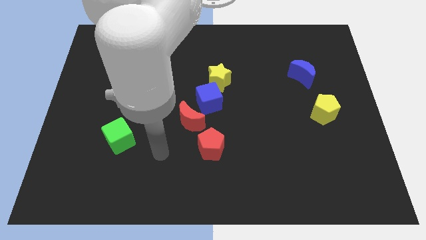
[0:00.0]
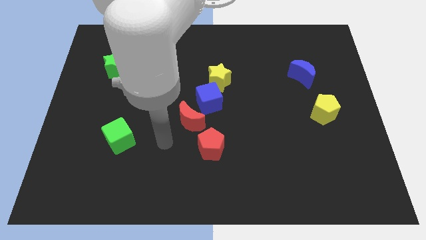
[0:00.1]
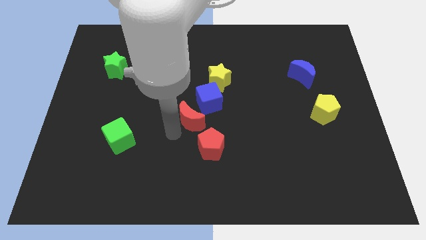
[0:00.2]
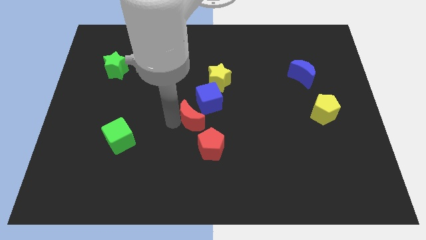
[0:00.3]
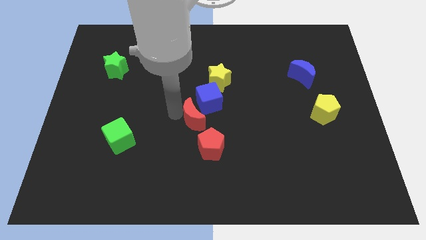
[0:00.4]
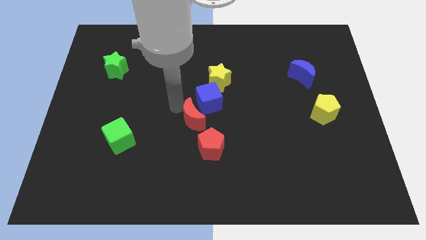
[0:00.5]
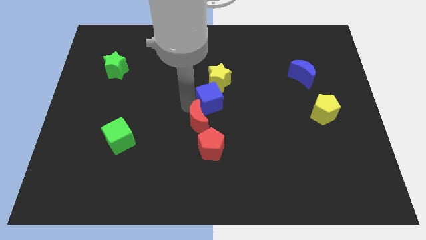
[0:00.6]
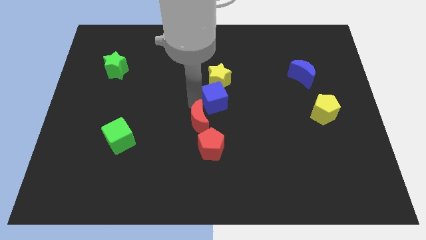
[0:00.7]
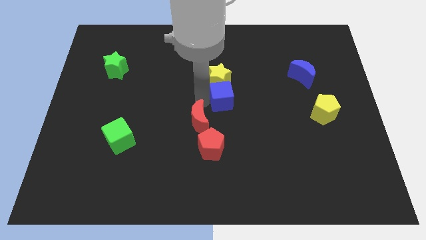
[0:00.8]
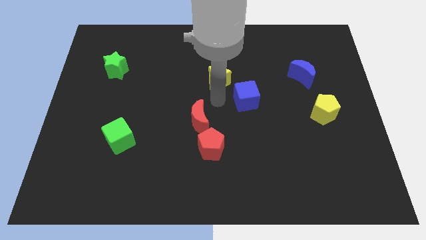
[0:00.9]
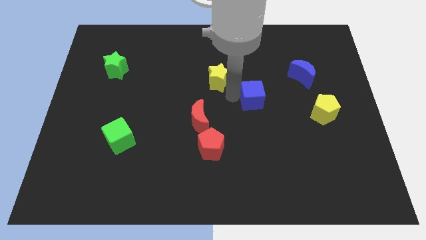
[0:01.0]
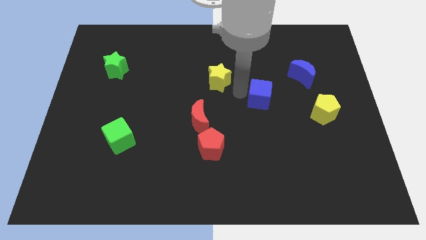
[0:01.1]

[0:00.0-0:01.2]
pull the yellow star apart from the blue cube

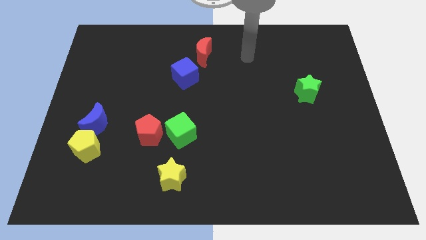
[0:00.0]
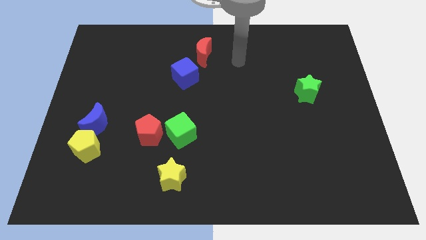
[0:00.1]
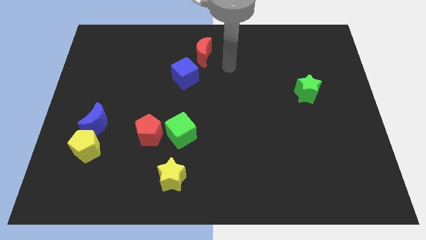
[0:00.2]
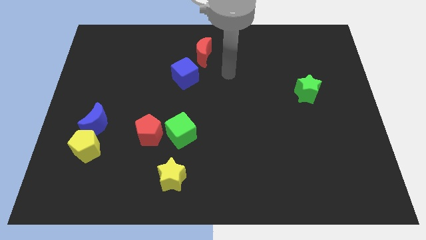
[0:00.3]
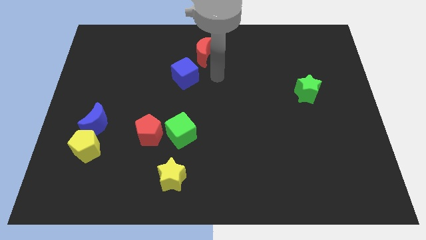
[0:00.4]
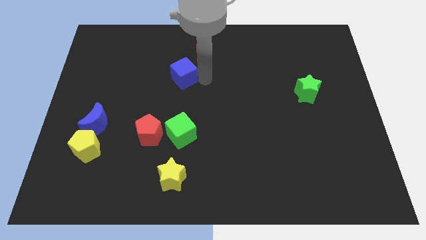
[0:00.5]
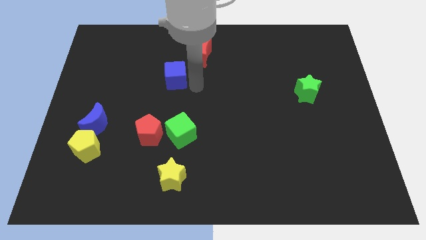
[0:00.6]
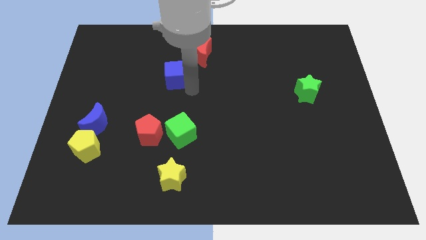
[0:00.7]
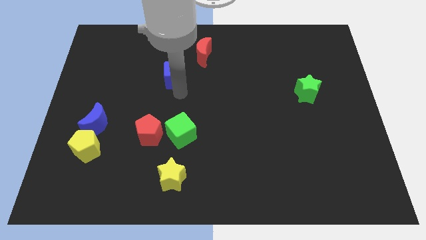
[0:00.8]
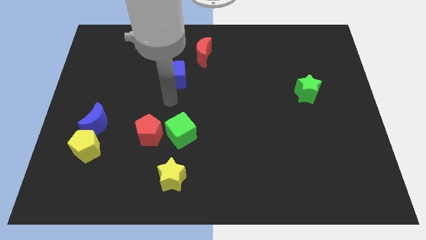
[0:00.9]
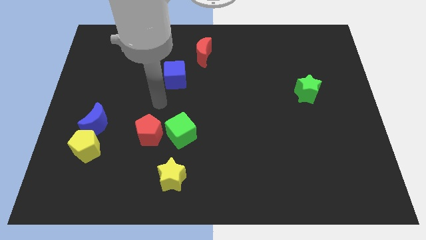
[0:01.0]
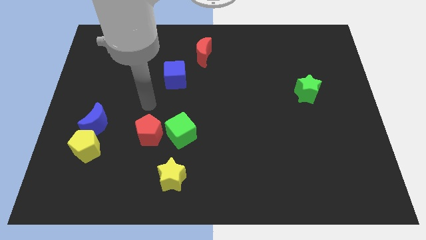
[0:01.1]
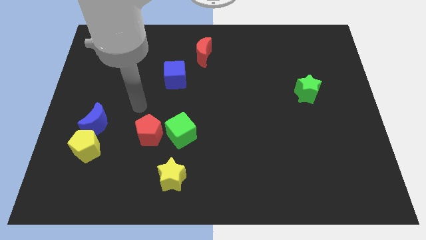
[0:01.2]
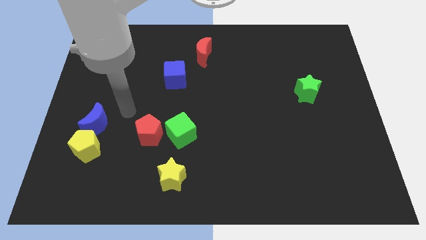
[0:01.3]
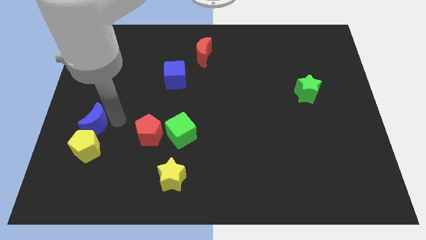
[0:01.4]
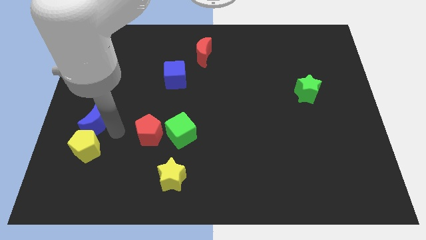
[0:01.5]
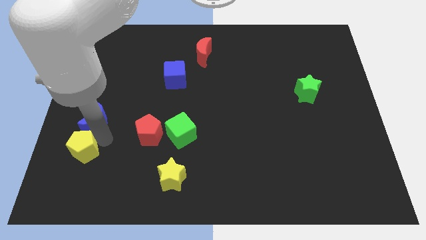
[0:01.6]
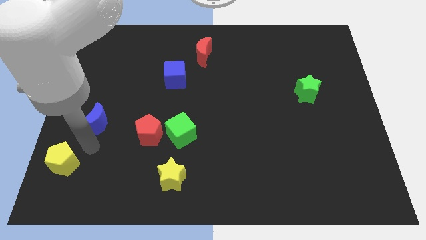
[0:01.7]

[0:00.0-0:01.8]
move the blue moon away from the yellow pentagon

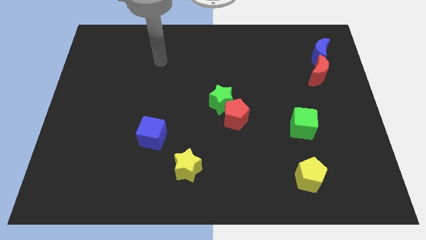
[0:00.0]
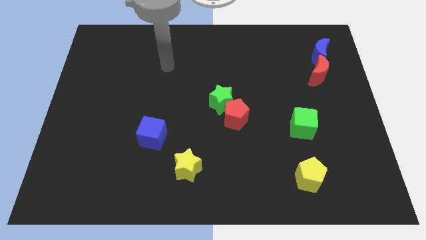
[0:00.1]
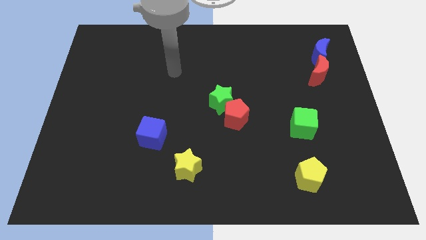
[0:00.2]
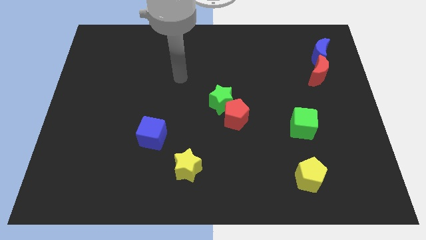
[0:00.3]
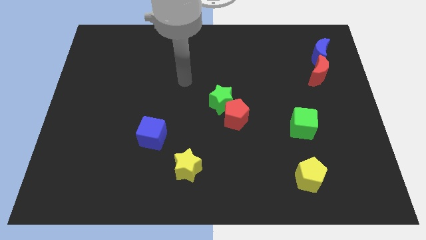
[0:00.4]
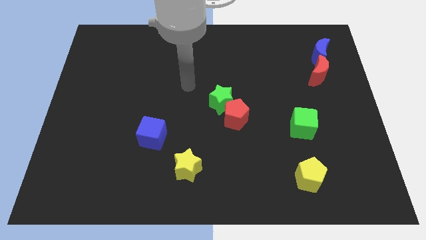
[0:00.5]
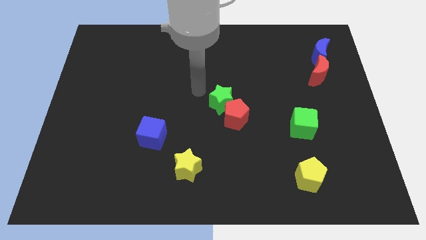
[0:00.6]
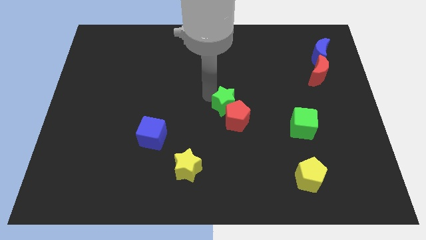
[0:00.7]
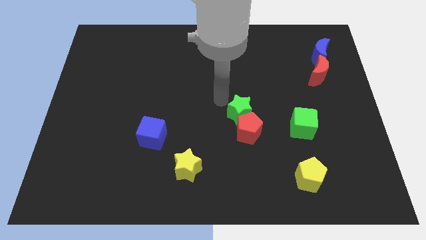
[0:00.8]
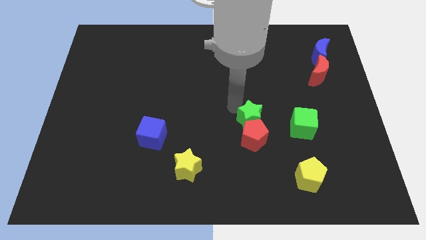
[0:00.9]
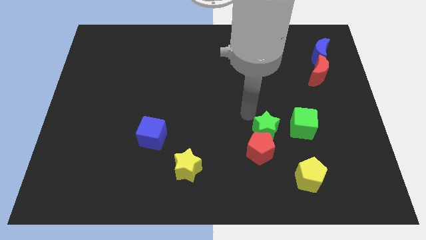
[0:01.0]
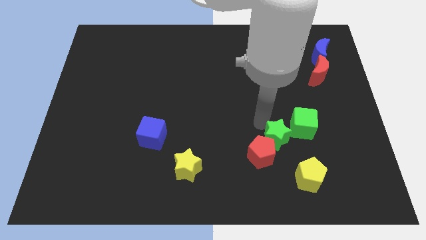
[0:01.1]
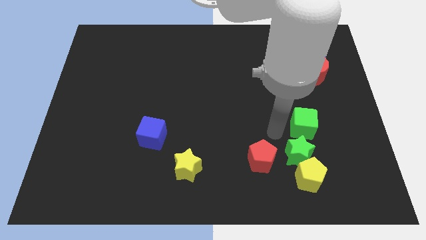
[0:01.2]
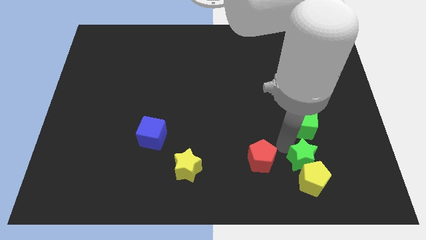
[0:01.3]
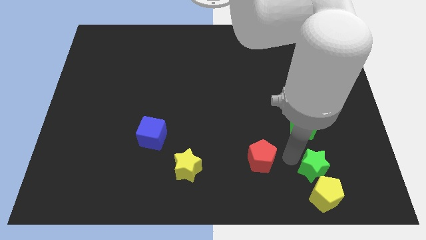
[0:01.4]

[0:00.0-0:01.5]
pull the red pentagon apart from the green star

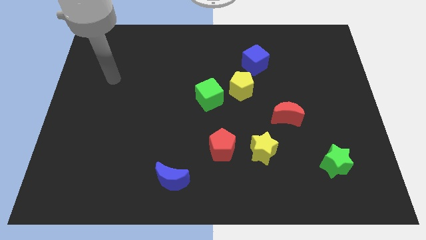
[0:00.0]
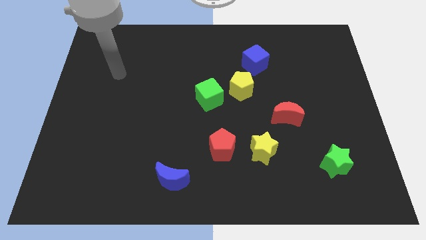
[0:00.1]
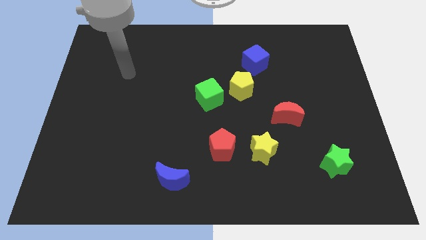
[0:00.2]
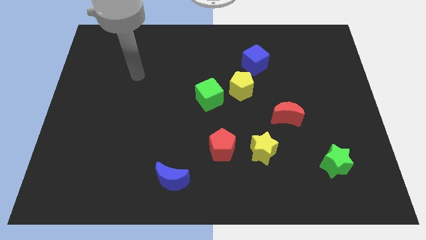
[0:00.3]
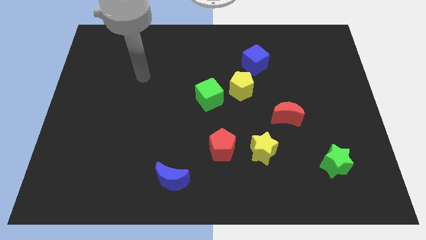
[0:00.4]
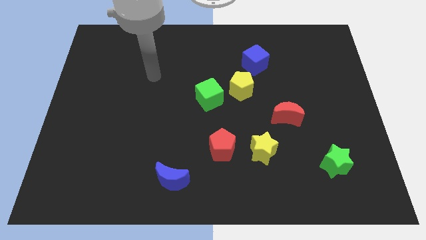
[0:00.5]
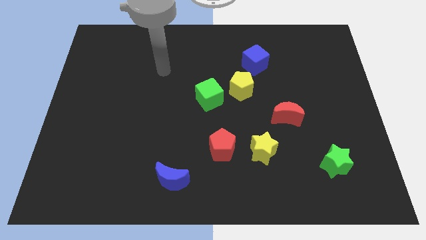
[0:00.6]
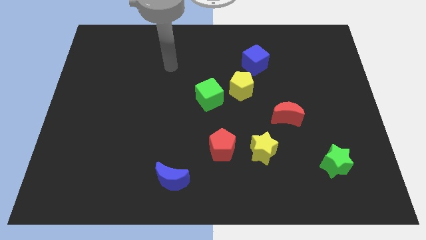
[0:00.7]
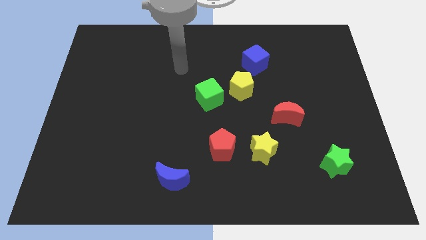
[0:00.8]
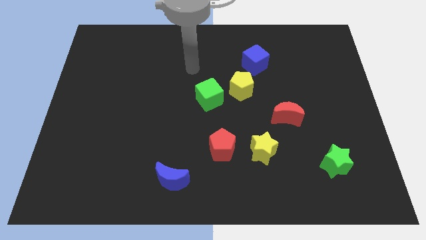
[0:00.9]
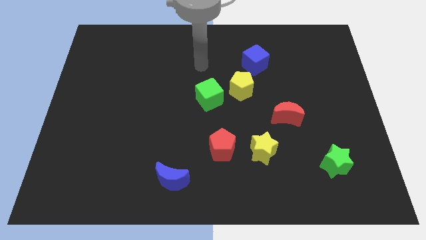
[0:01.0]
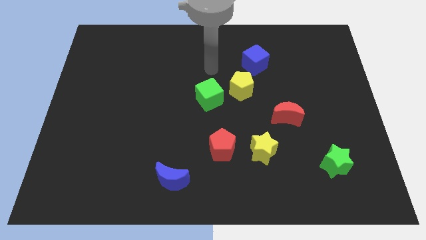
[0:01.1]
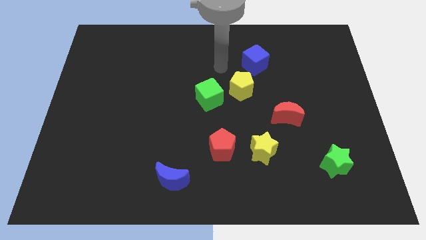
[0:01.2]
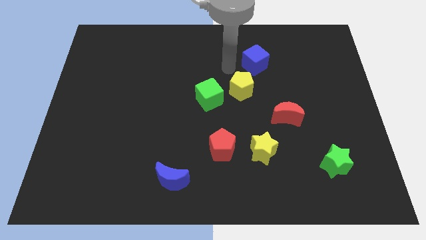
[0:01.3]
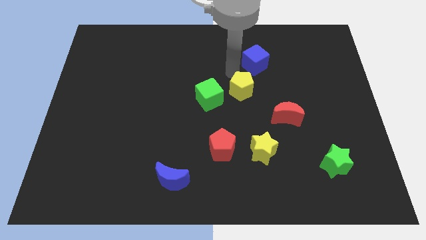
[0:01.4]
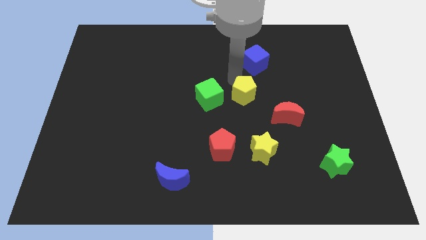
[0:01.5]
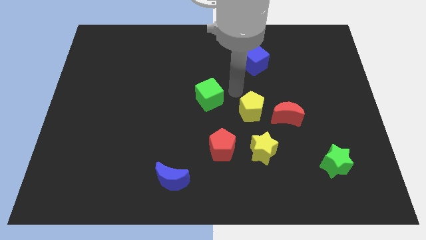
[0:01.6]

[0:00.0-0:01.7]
move the green cube away from the yellow pentagon

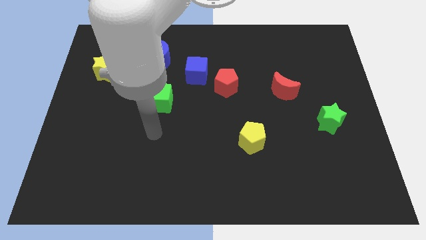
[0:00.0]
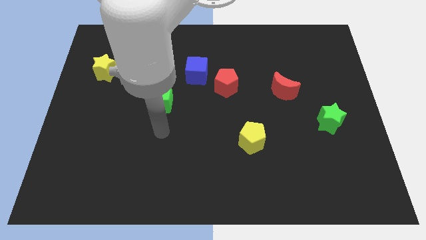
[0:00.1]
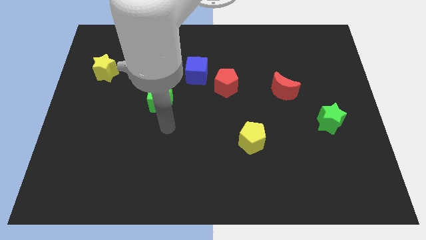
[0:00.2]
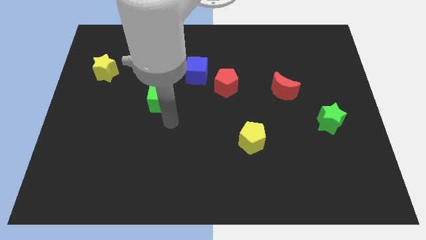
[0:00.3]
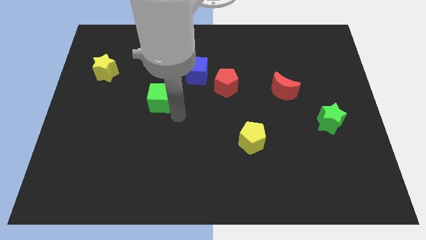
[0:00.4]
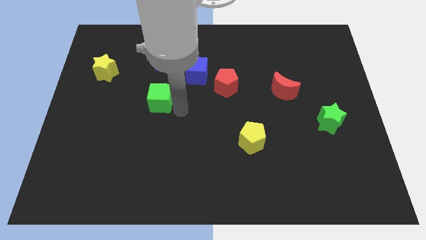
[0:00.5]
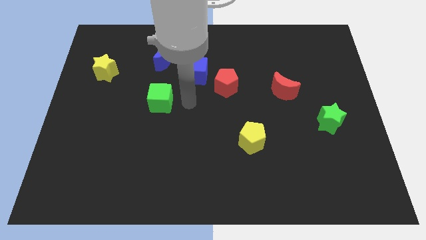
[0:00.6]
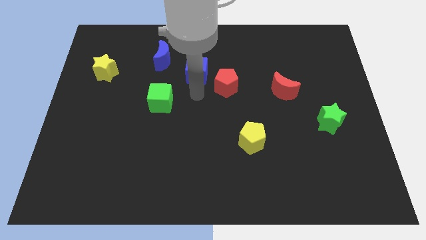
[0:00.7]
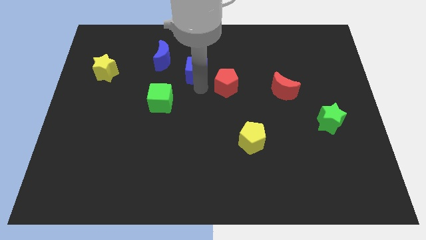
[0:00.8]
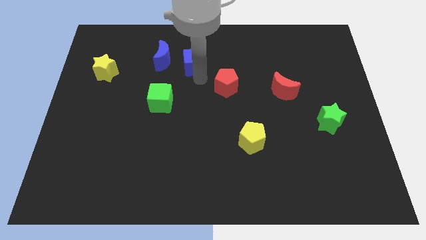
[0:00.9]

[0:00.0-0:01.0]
separate the red pentagon from the blue cube

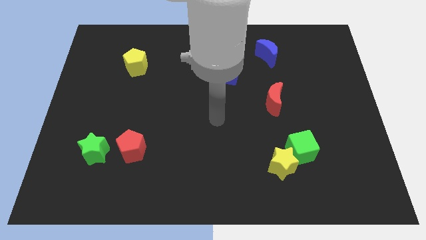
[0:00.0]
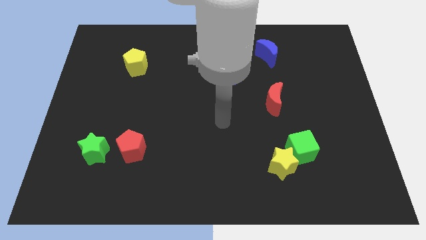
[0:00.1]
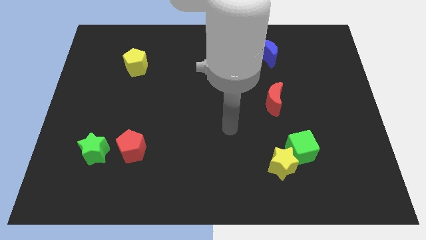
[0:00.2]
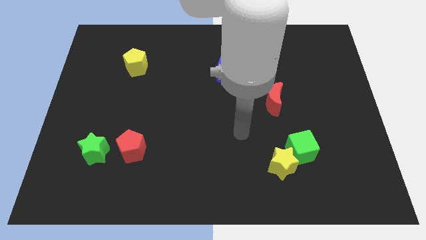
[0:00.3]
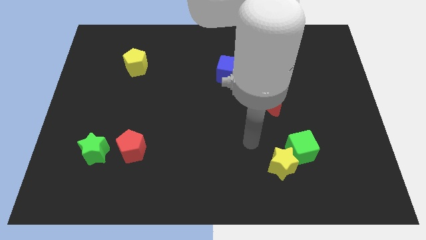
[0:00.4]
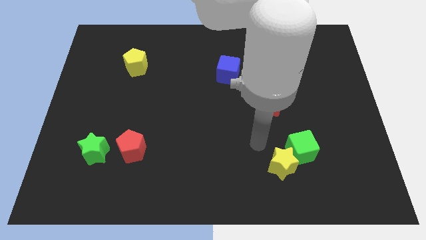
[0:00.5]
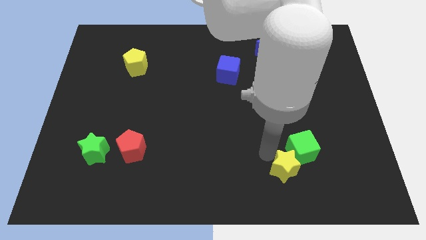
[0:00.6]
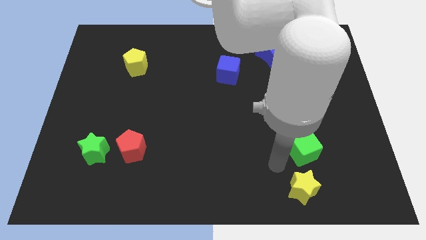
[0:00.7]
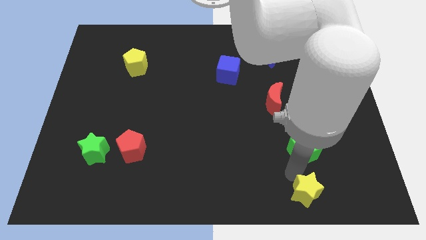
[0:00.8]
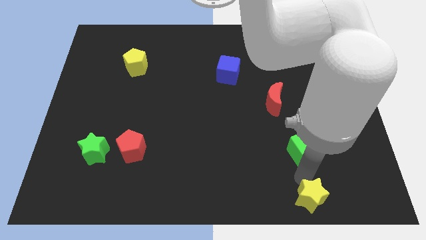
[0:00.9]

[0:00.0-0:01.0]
pull the green cube apart from the yellow star

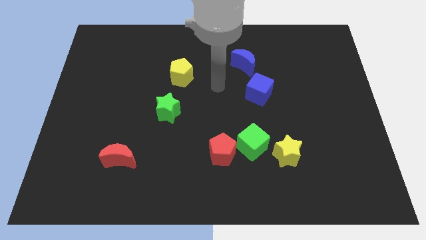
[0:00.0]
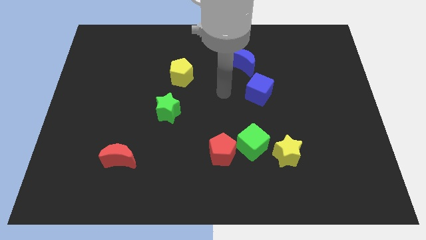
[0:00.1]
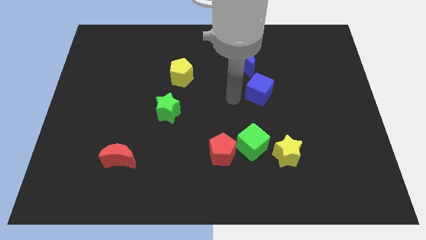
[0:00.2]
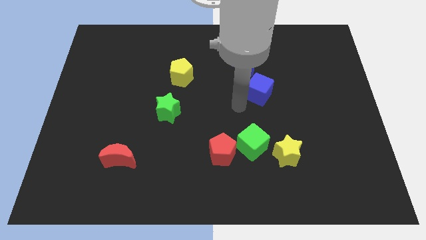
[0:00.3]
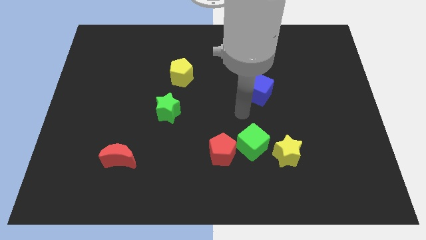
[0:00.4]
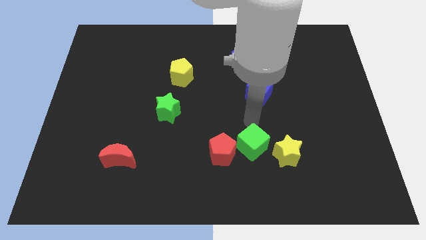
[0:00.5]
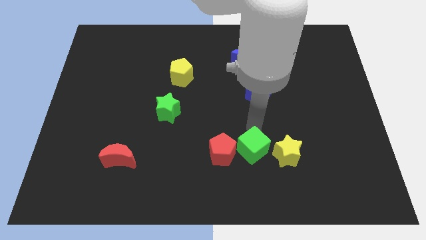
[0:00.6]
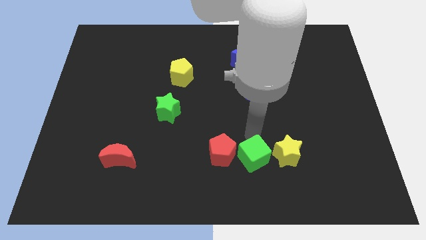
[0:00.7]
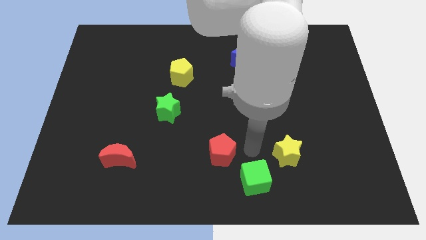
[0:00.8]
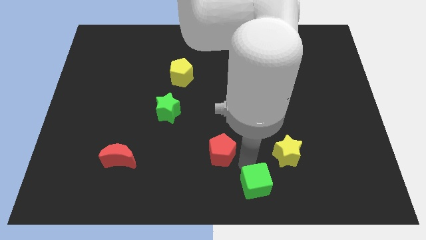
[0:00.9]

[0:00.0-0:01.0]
move the red pentagon away from the green cube

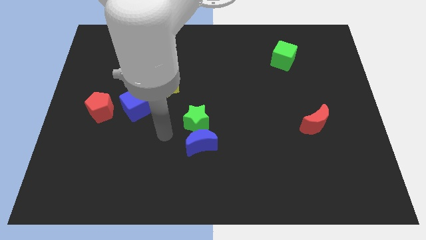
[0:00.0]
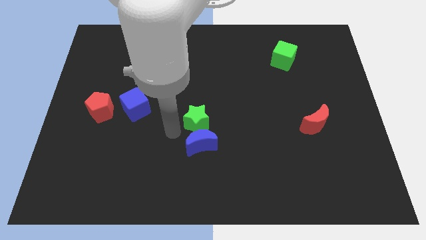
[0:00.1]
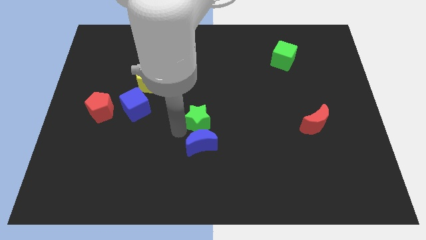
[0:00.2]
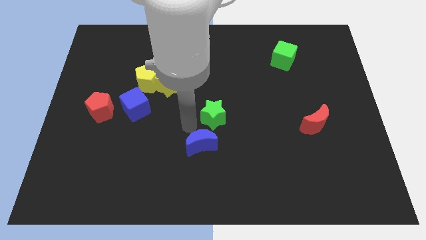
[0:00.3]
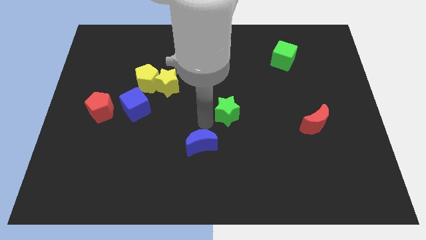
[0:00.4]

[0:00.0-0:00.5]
pull the blue moon apart from the green star
